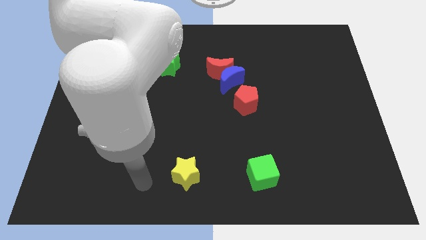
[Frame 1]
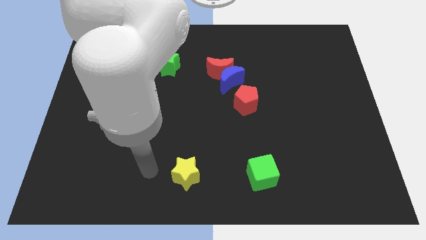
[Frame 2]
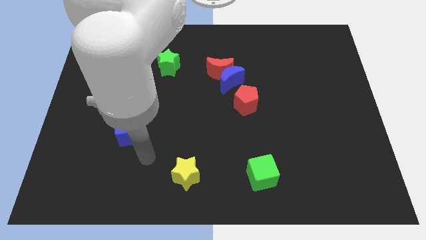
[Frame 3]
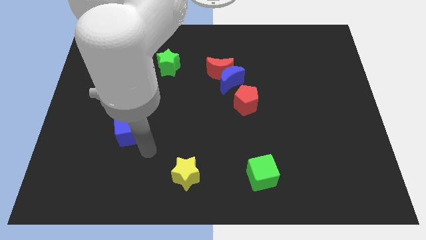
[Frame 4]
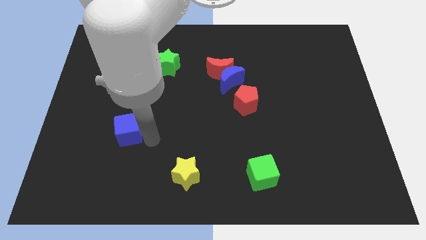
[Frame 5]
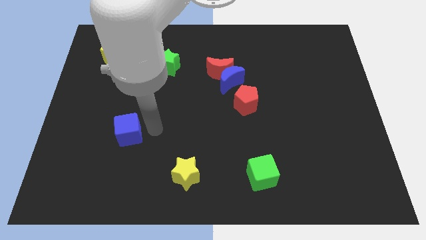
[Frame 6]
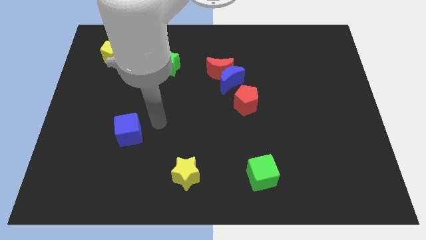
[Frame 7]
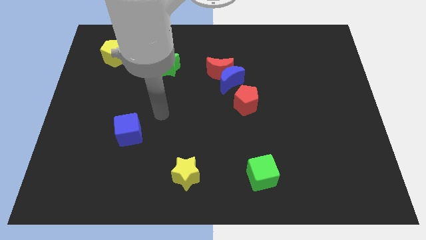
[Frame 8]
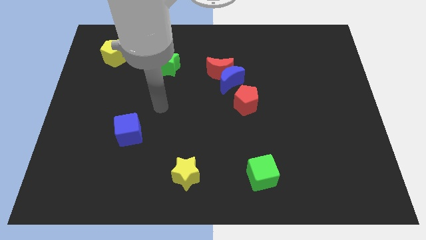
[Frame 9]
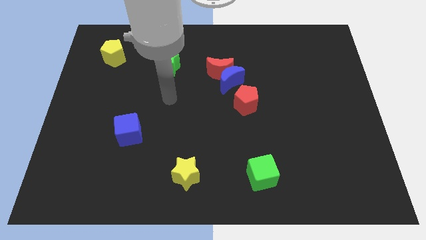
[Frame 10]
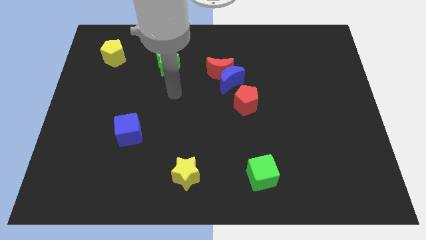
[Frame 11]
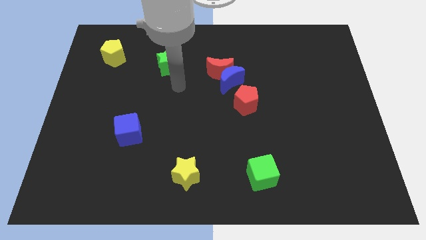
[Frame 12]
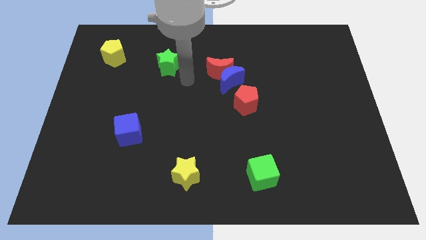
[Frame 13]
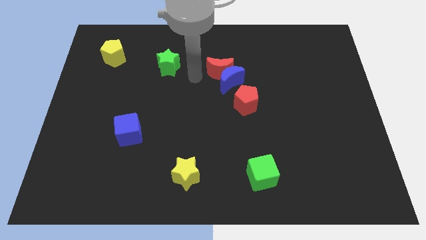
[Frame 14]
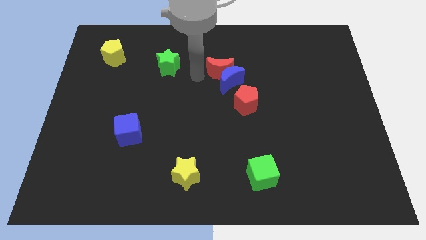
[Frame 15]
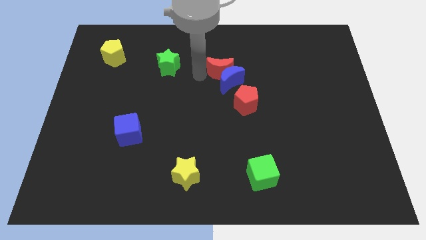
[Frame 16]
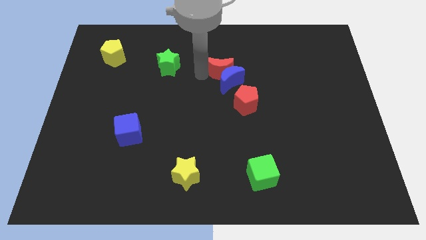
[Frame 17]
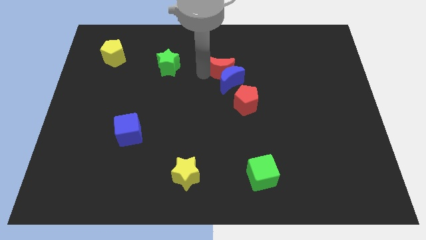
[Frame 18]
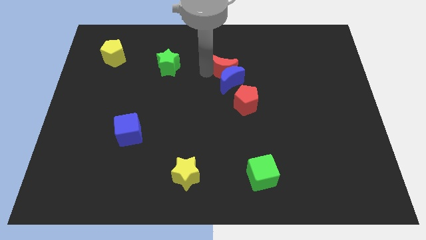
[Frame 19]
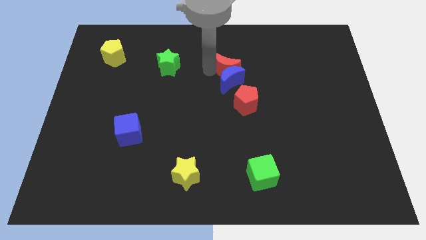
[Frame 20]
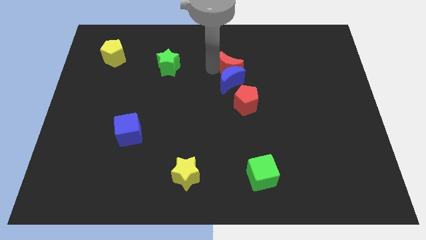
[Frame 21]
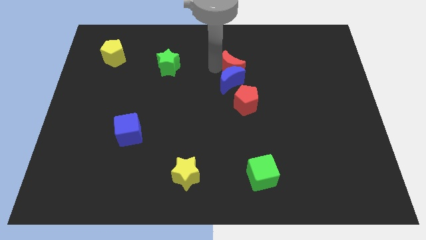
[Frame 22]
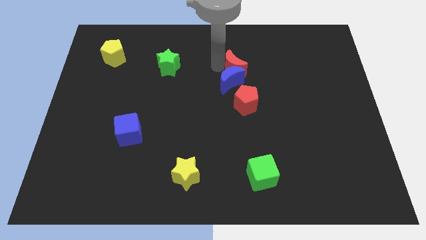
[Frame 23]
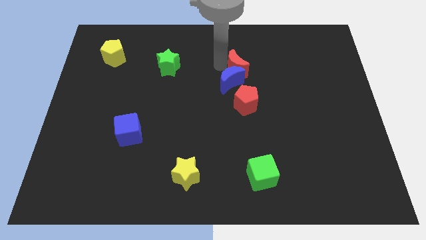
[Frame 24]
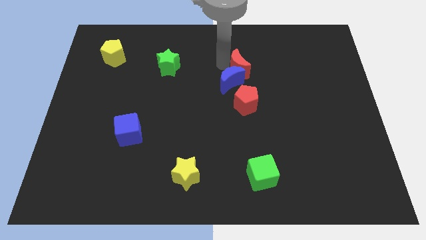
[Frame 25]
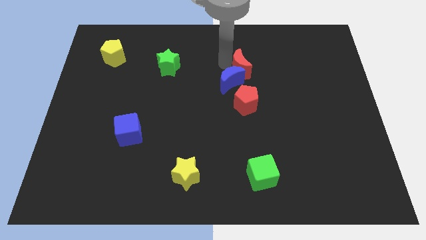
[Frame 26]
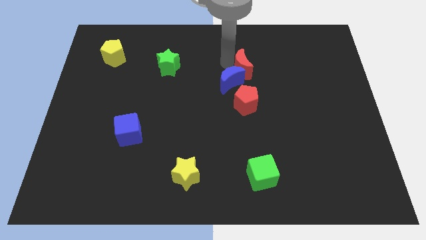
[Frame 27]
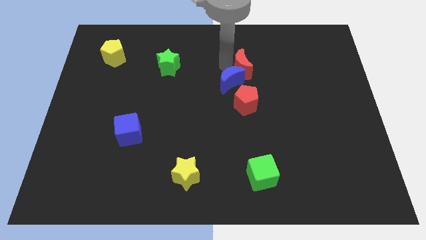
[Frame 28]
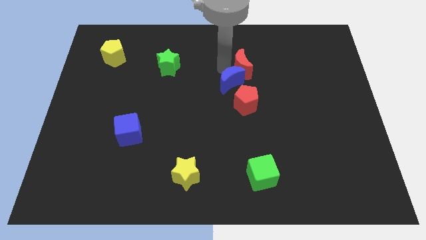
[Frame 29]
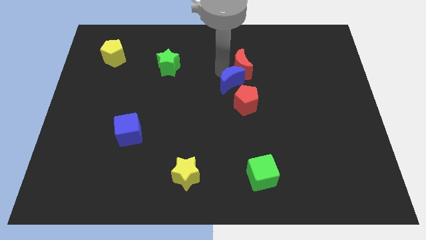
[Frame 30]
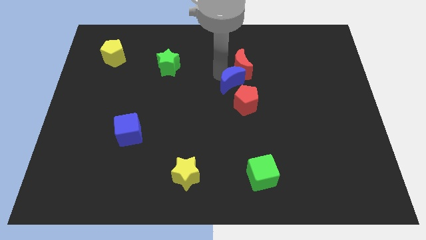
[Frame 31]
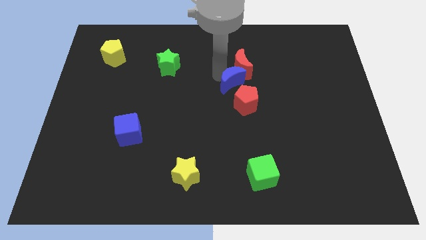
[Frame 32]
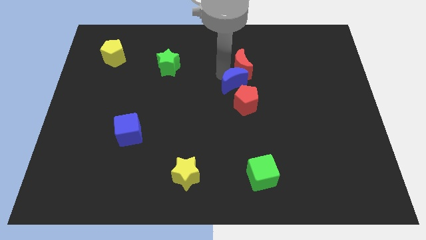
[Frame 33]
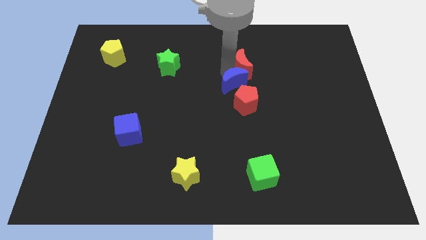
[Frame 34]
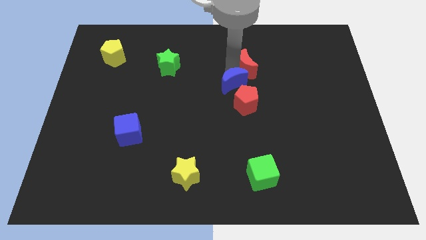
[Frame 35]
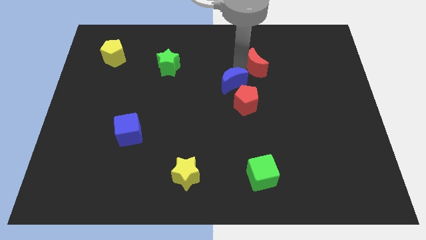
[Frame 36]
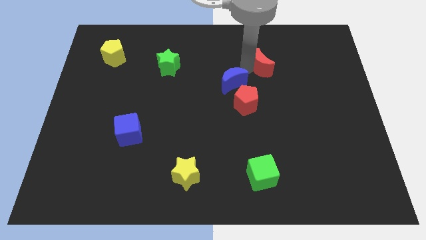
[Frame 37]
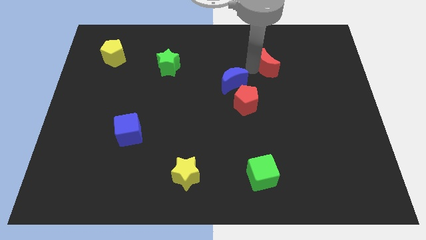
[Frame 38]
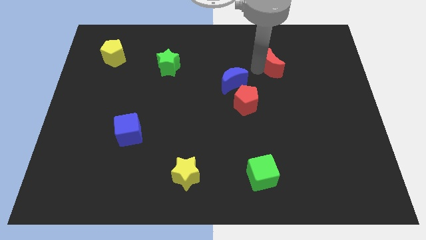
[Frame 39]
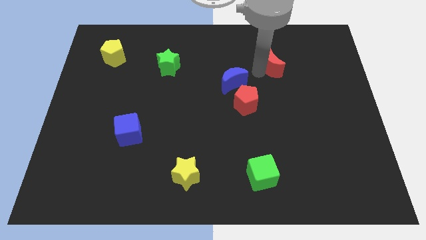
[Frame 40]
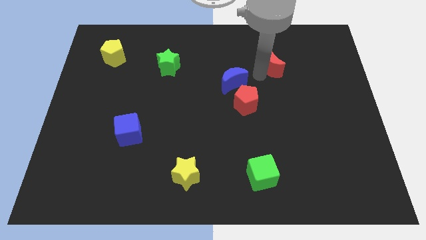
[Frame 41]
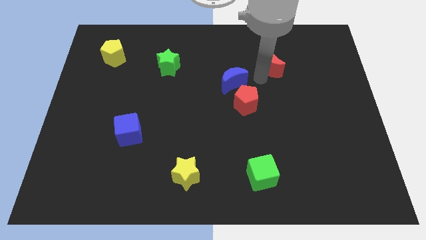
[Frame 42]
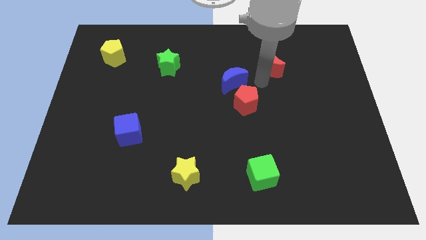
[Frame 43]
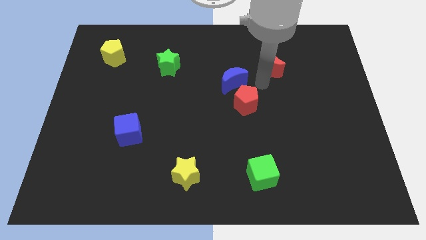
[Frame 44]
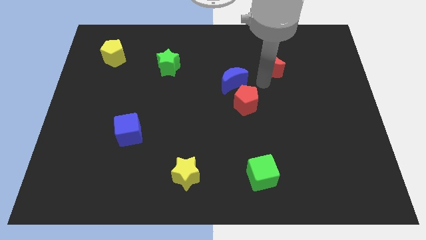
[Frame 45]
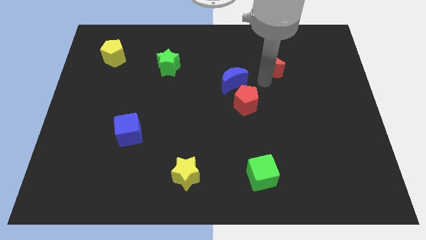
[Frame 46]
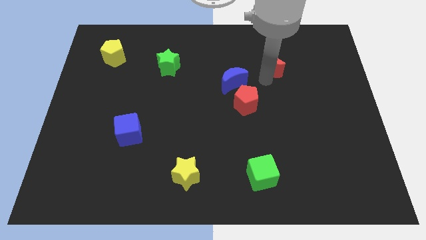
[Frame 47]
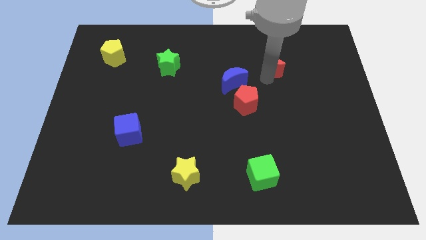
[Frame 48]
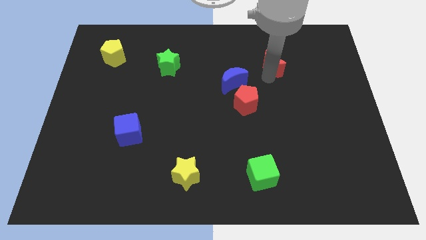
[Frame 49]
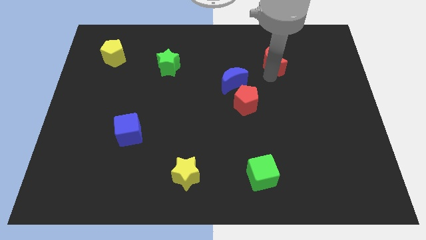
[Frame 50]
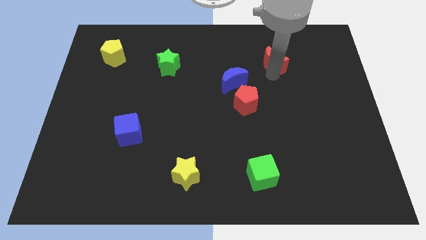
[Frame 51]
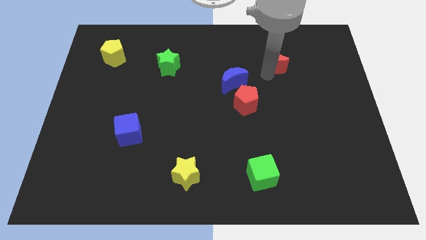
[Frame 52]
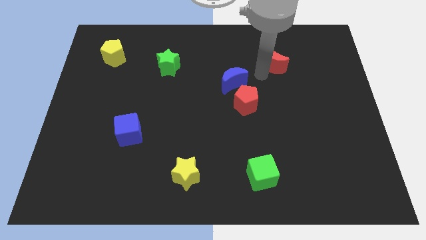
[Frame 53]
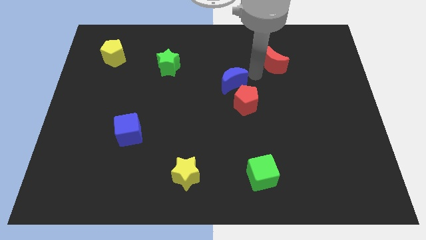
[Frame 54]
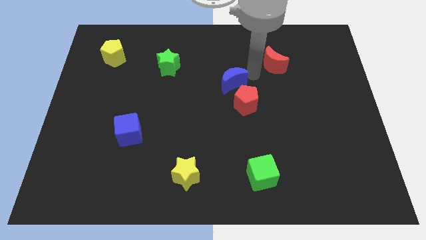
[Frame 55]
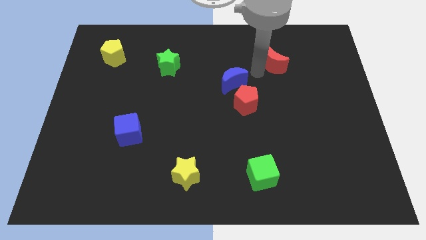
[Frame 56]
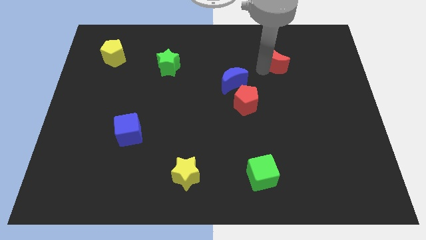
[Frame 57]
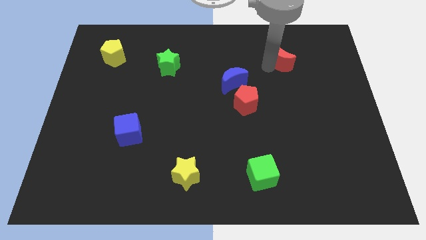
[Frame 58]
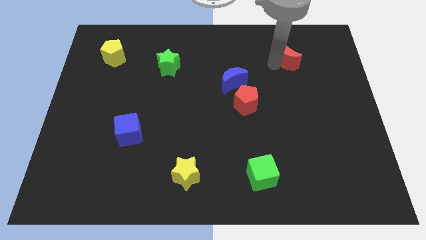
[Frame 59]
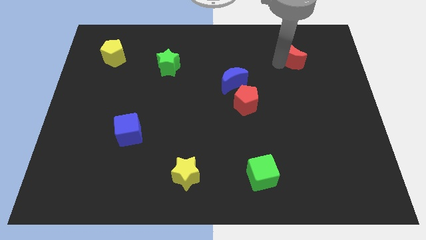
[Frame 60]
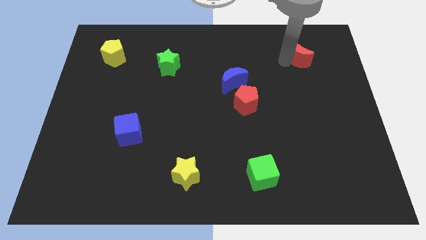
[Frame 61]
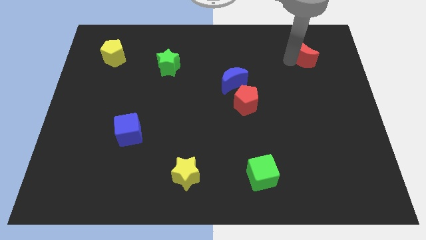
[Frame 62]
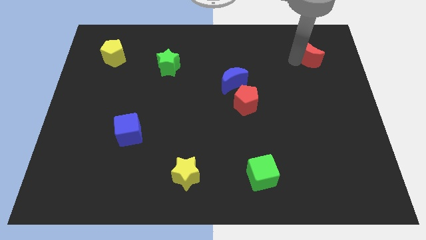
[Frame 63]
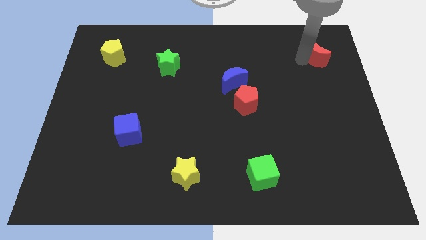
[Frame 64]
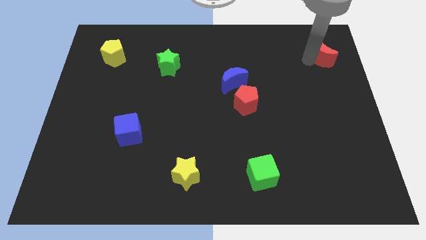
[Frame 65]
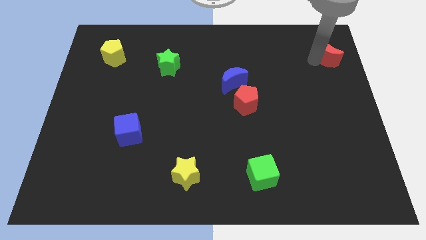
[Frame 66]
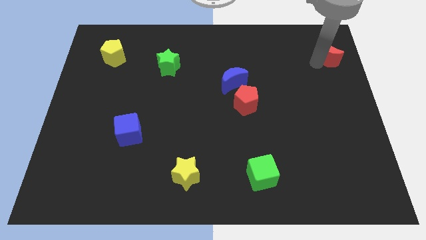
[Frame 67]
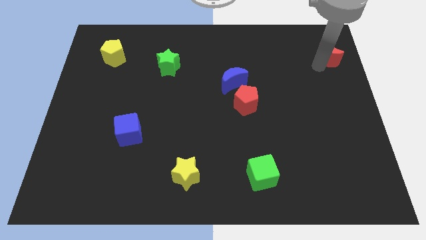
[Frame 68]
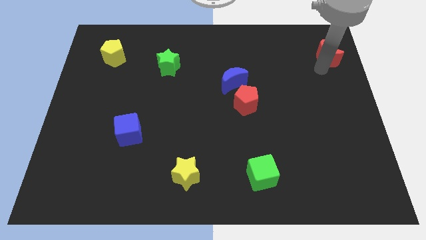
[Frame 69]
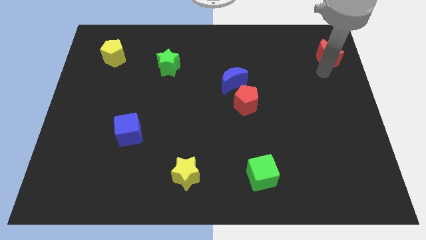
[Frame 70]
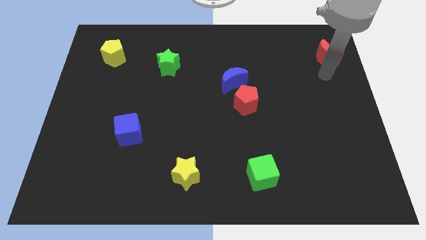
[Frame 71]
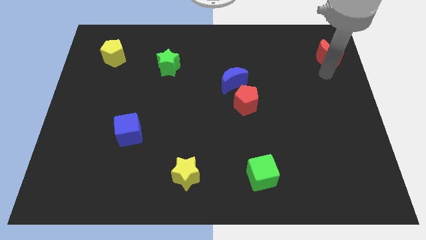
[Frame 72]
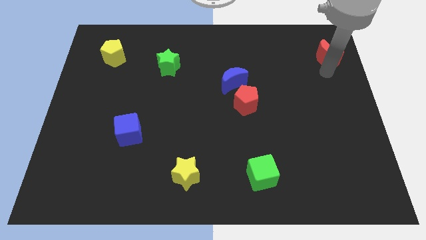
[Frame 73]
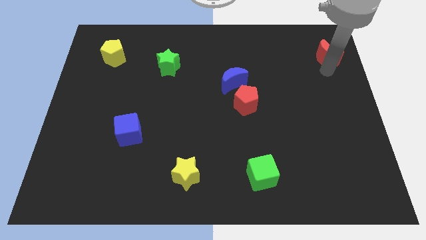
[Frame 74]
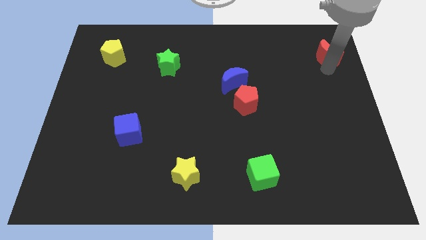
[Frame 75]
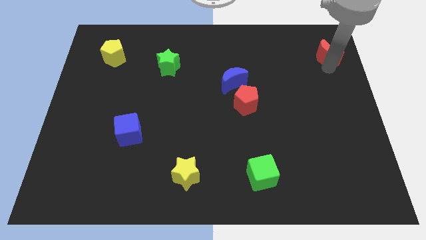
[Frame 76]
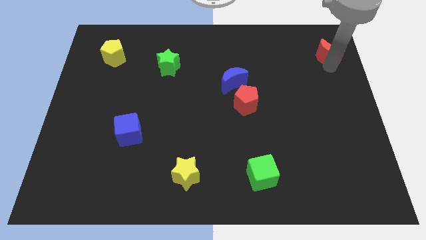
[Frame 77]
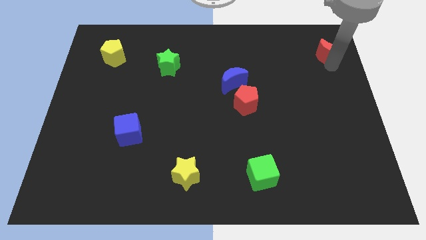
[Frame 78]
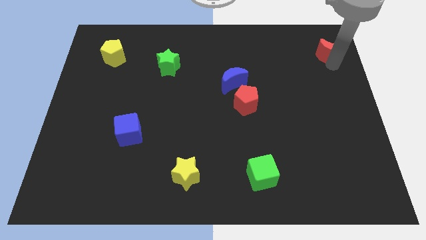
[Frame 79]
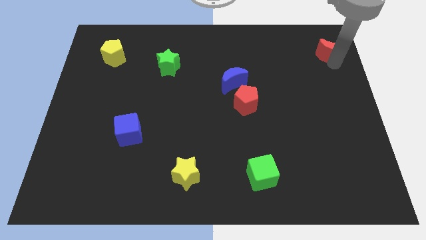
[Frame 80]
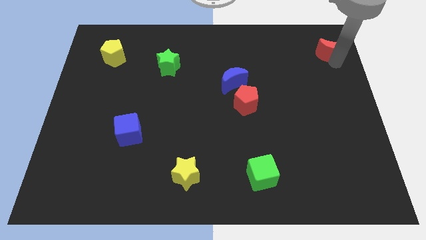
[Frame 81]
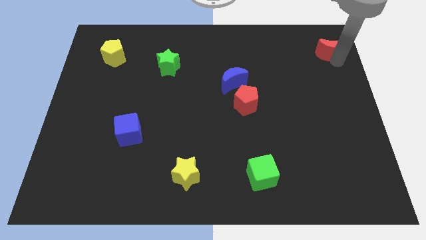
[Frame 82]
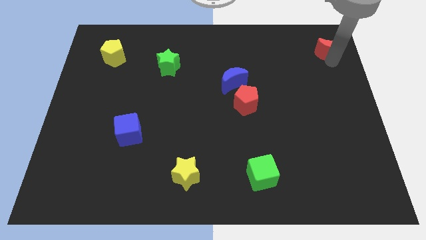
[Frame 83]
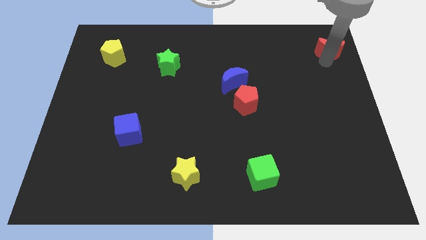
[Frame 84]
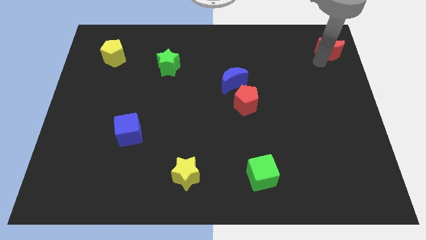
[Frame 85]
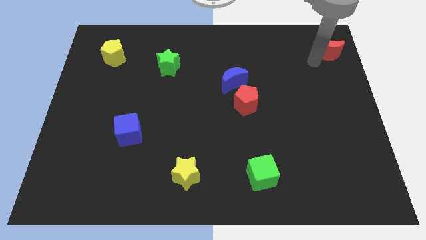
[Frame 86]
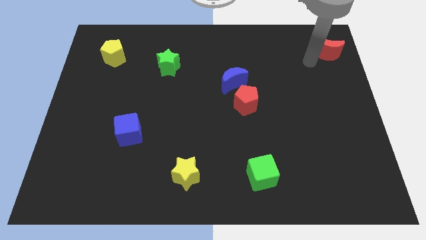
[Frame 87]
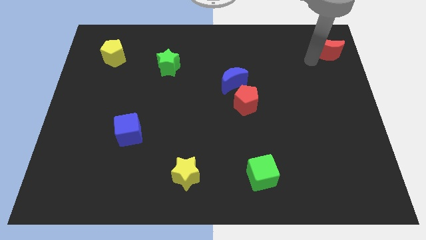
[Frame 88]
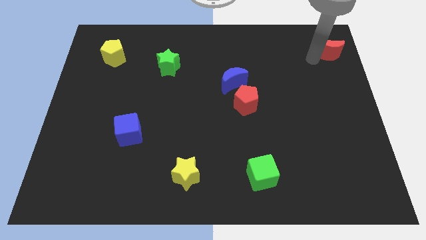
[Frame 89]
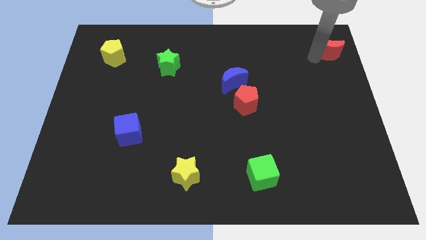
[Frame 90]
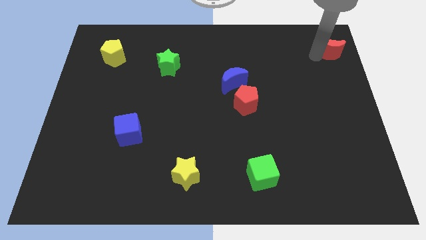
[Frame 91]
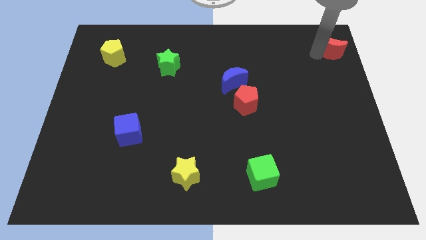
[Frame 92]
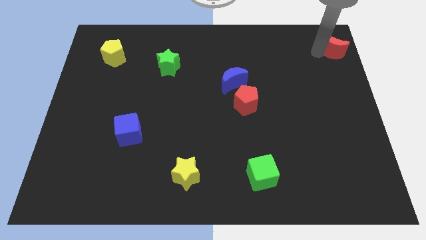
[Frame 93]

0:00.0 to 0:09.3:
push the red moon to the upper right corner
